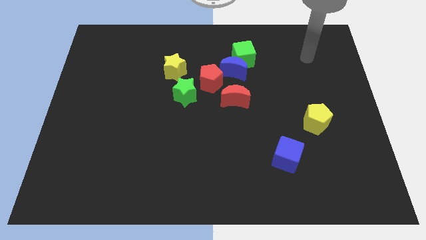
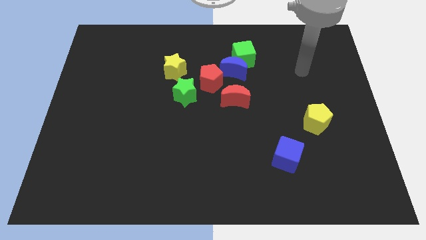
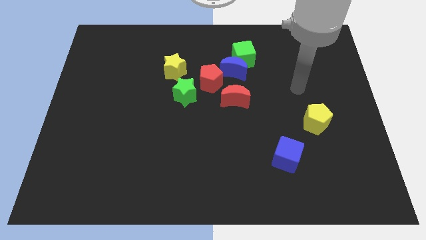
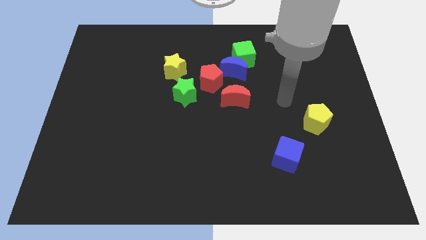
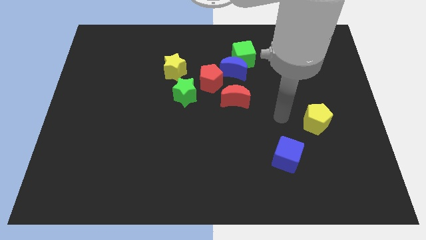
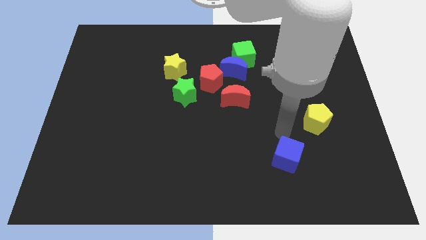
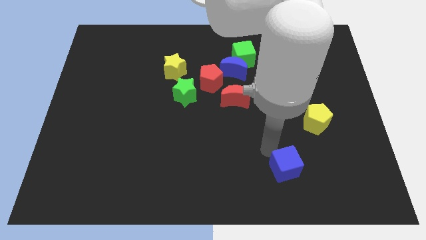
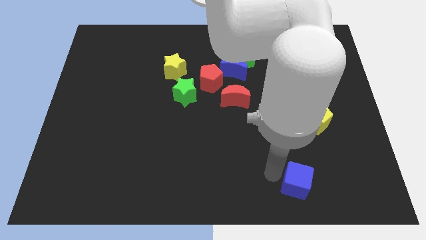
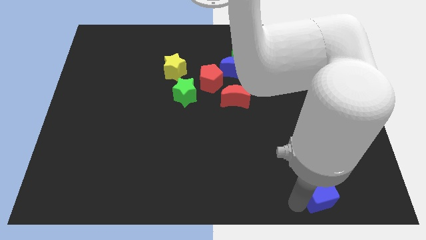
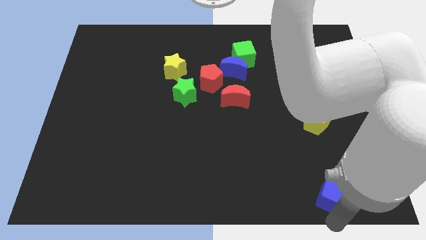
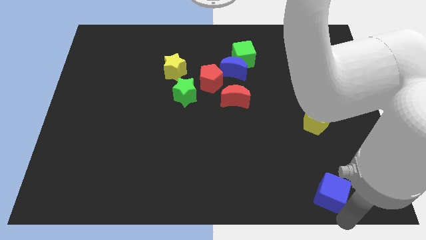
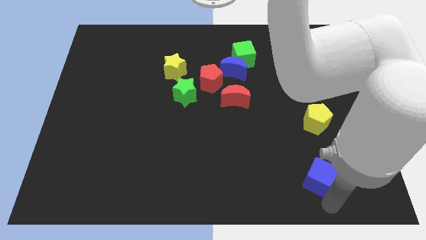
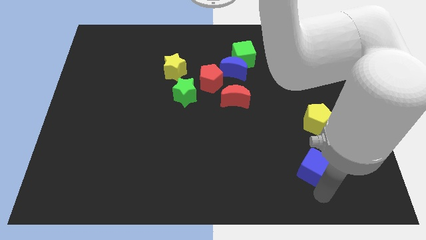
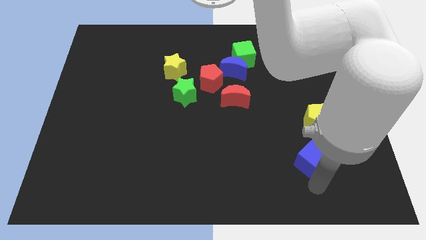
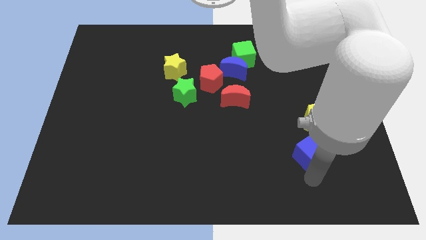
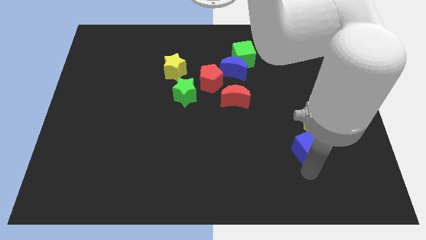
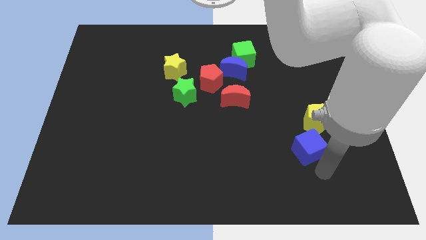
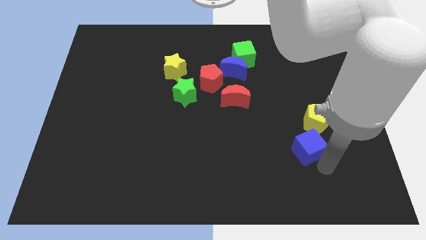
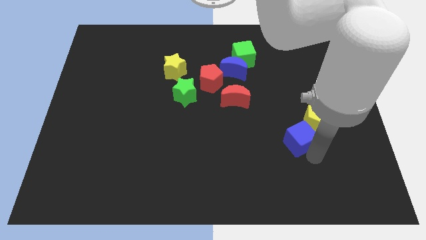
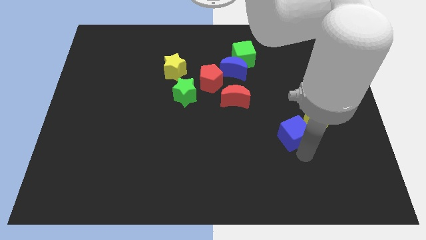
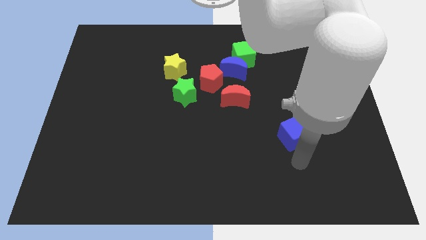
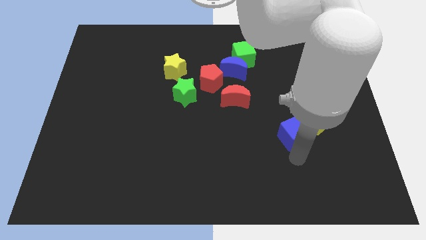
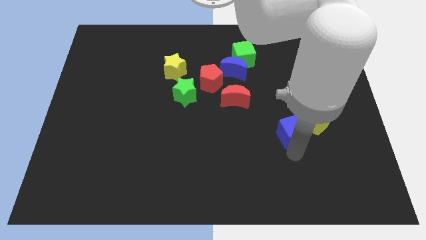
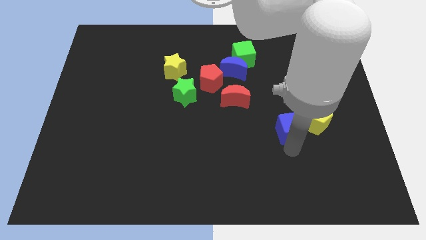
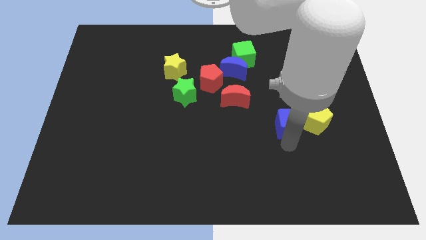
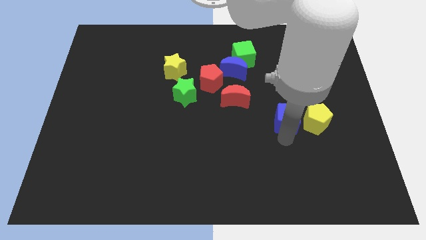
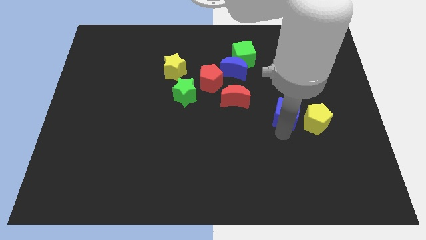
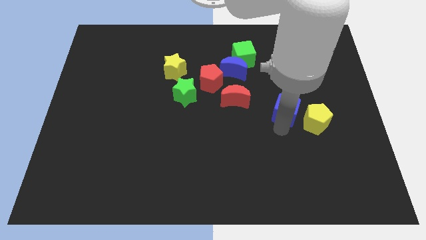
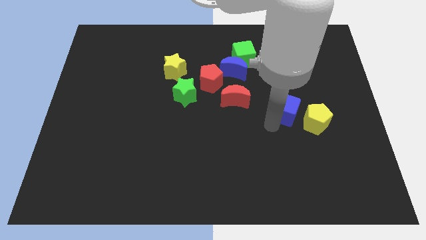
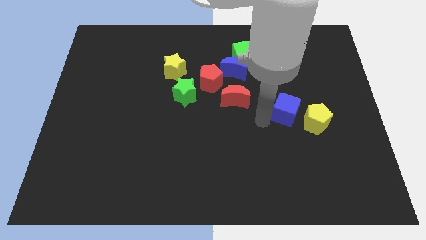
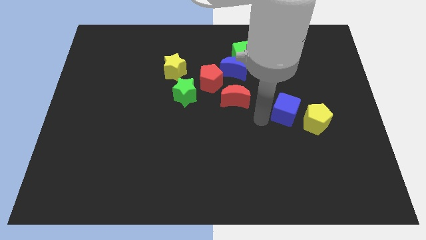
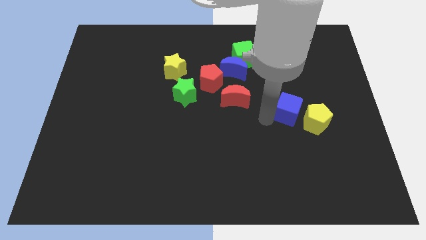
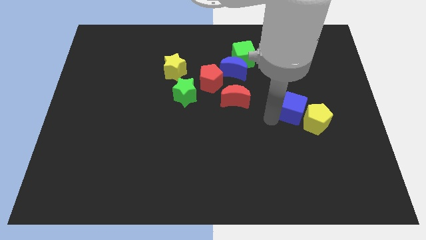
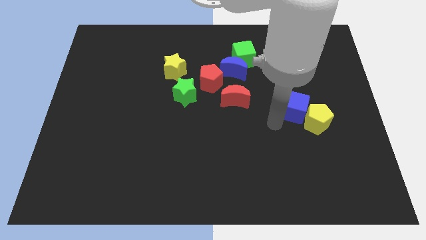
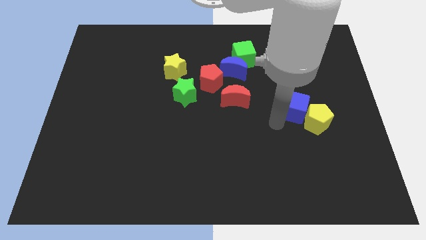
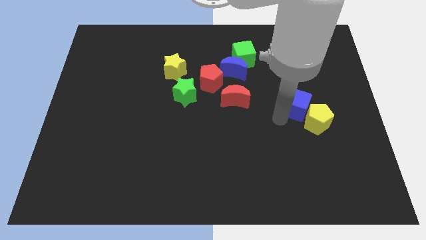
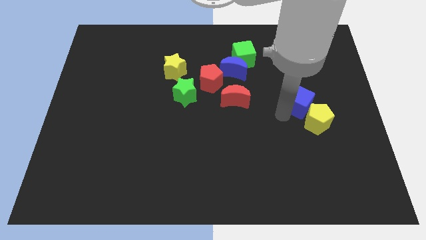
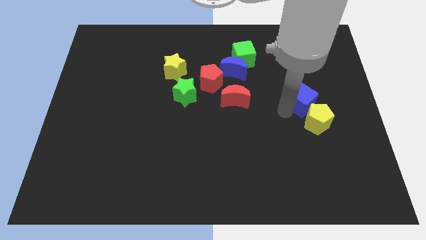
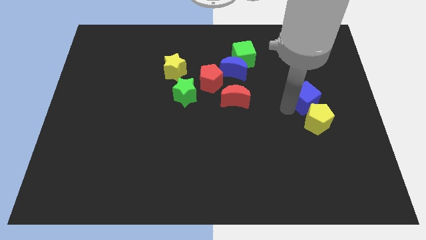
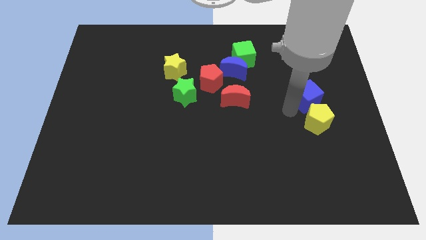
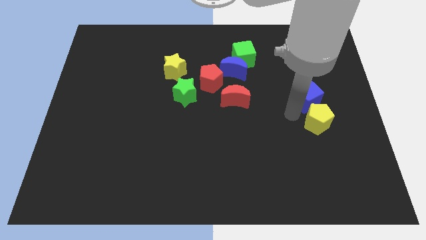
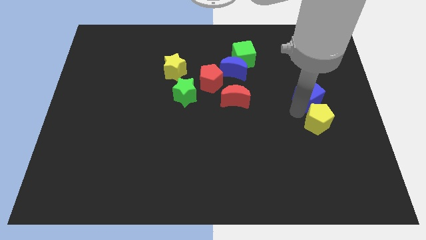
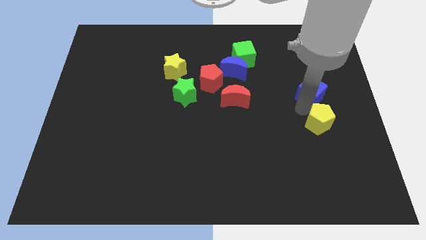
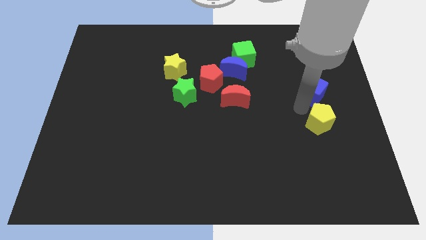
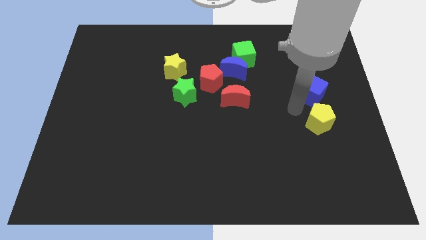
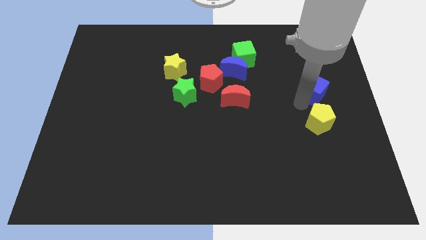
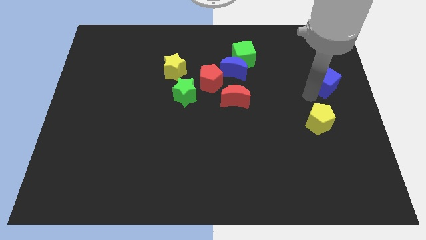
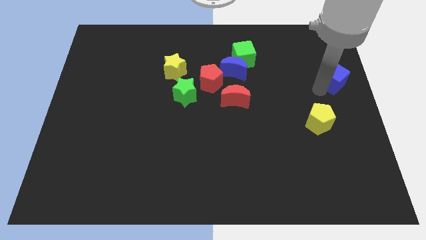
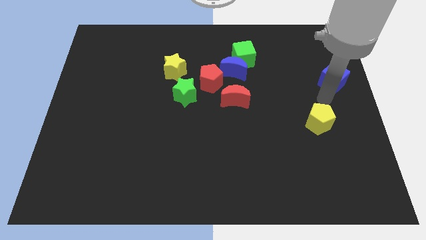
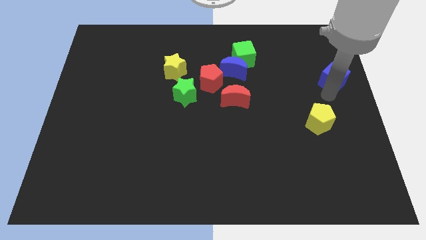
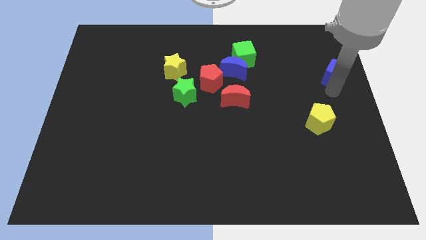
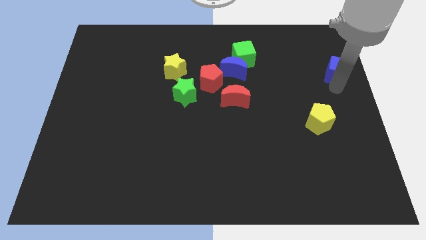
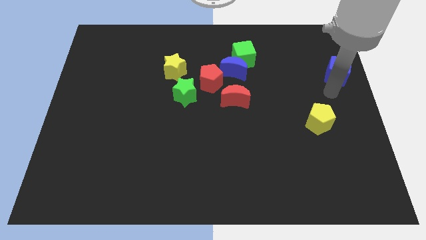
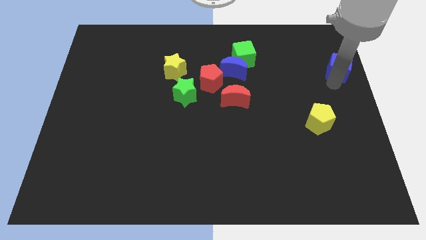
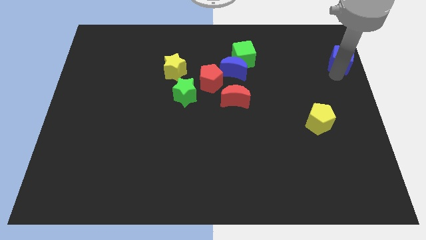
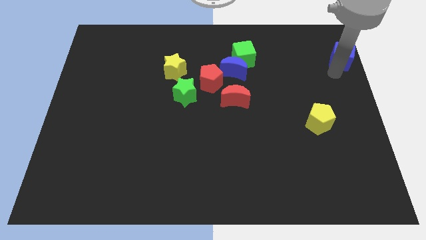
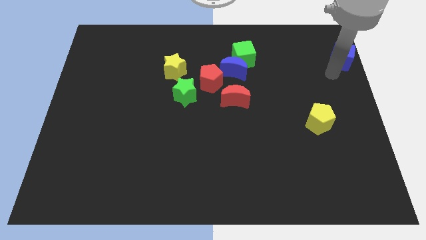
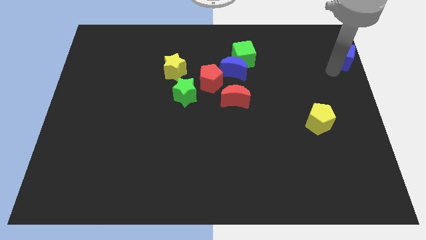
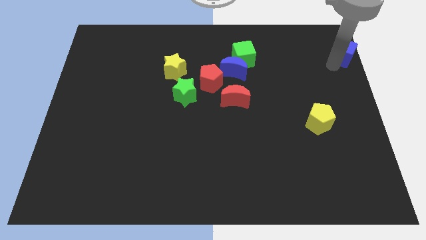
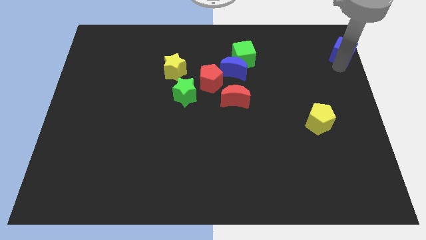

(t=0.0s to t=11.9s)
put the blue cube to the top right corner

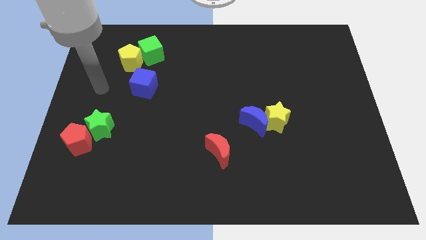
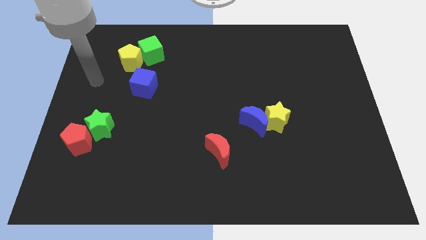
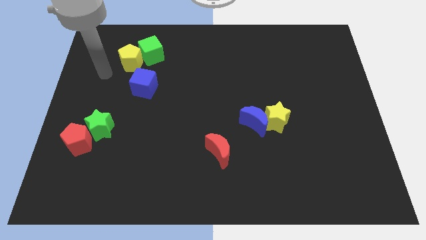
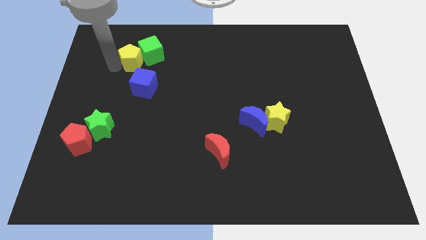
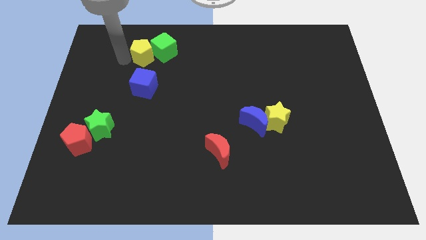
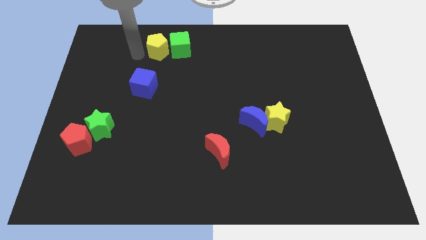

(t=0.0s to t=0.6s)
push the green cube to the towards your base
